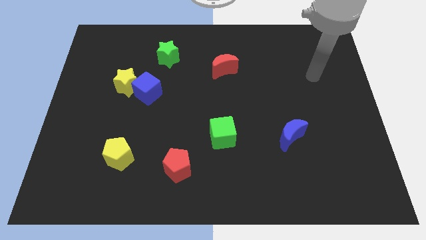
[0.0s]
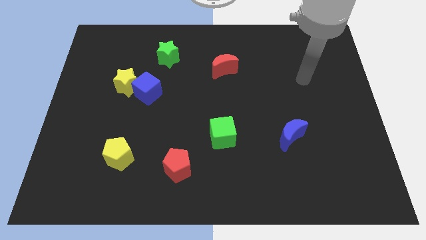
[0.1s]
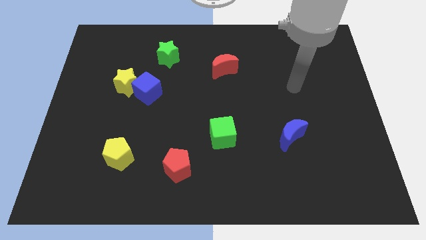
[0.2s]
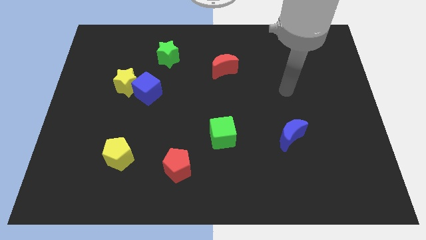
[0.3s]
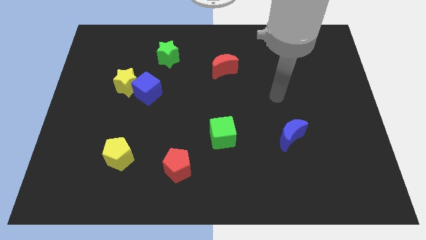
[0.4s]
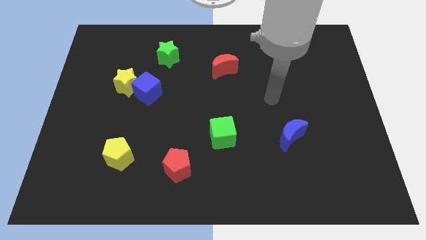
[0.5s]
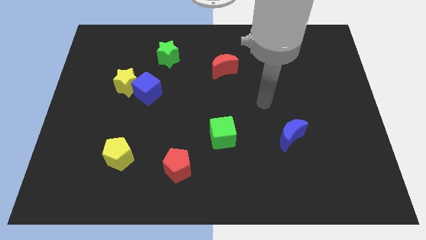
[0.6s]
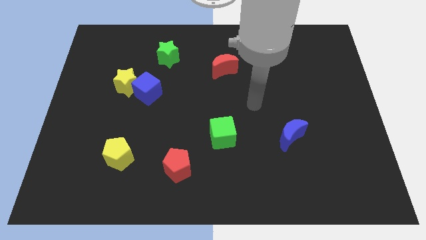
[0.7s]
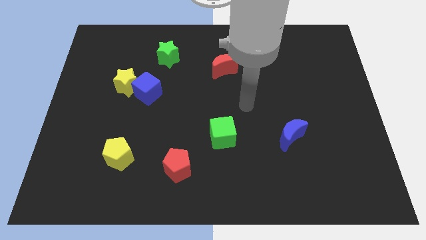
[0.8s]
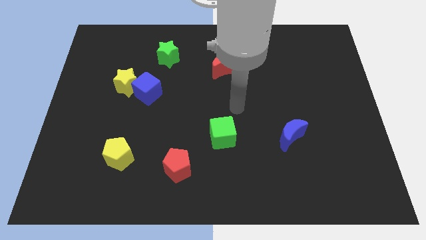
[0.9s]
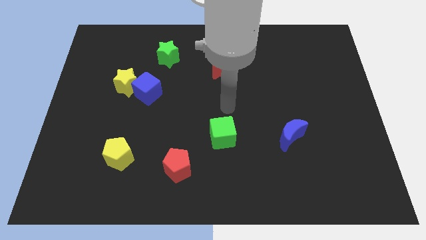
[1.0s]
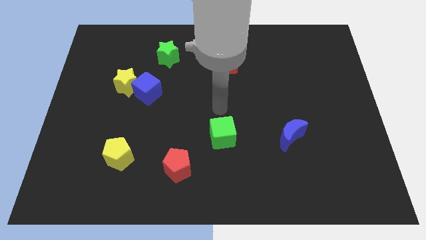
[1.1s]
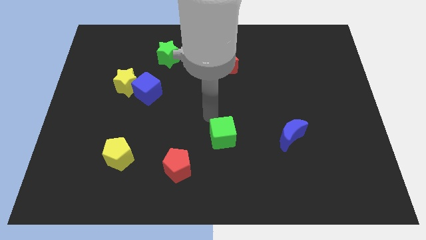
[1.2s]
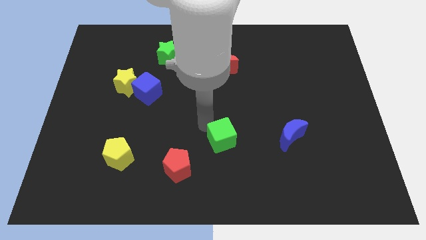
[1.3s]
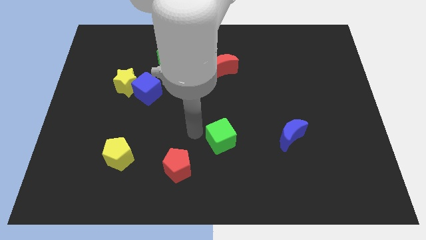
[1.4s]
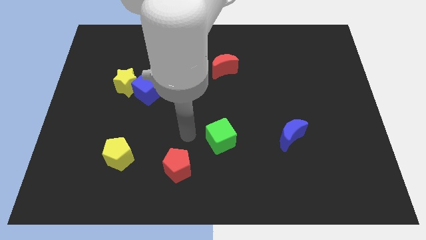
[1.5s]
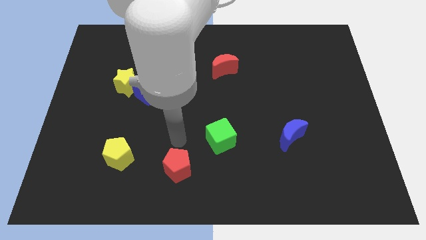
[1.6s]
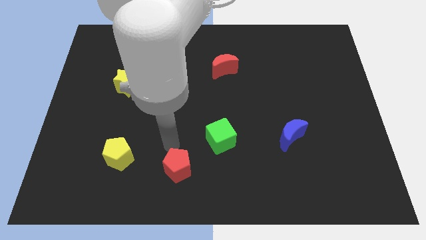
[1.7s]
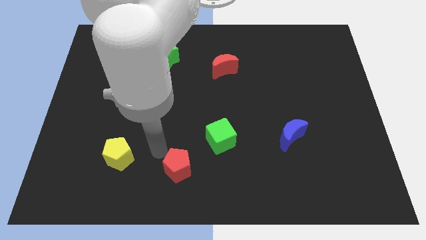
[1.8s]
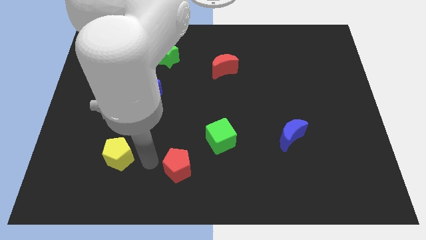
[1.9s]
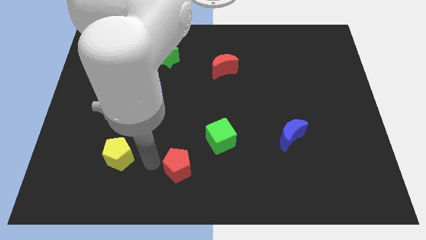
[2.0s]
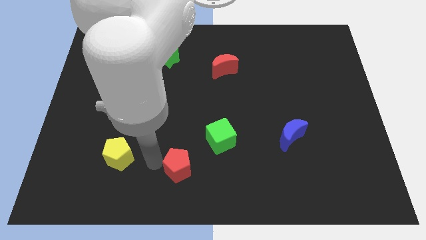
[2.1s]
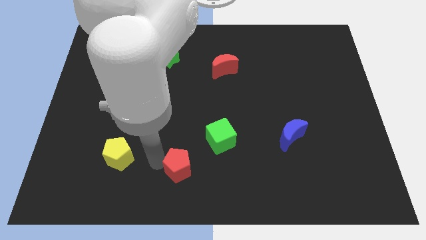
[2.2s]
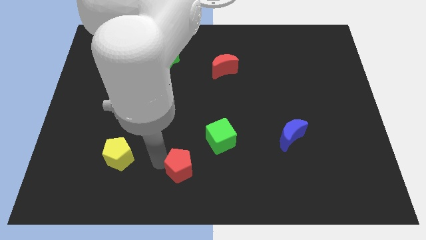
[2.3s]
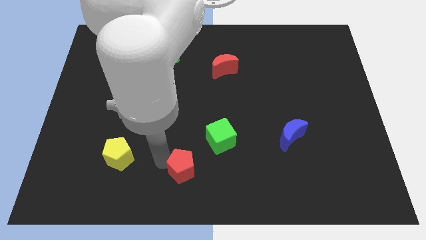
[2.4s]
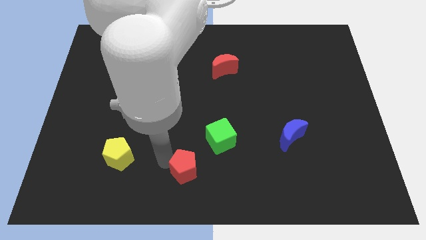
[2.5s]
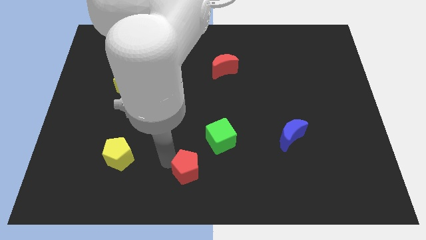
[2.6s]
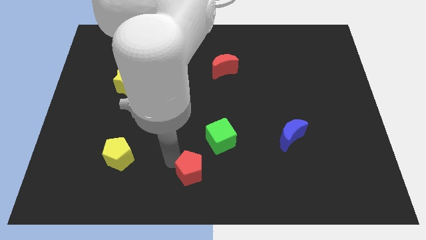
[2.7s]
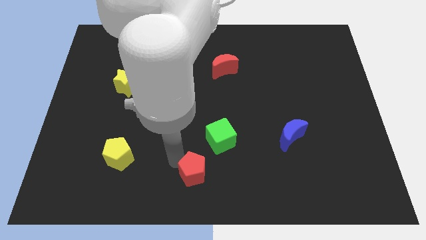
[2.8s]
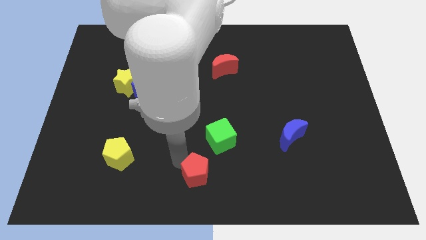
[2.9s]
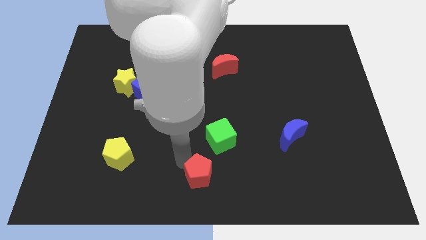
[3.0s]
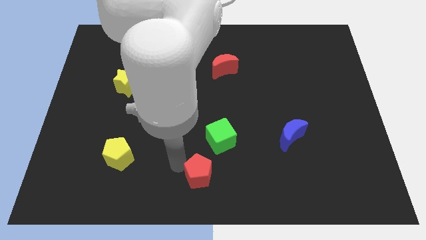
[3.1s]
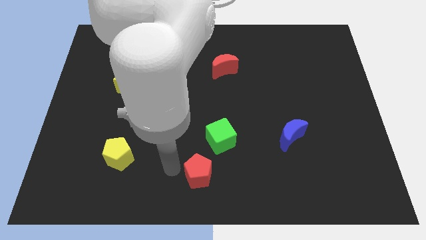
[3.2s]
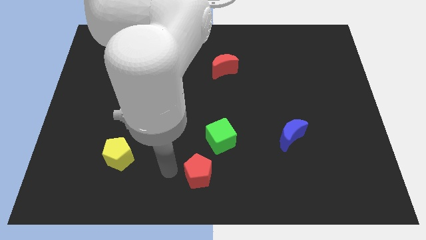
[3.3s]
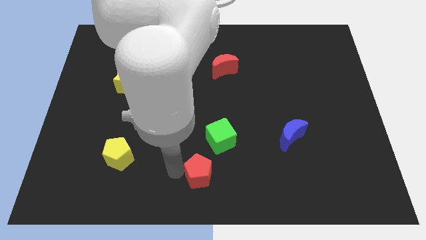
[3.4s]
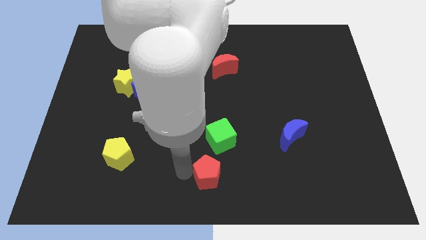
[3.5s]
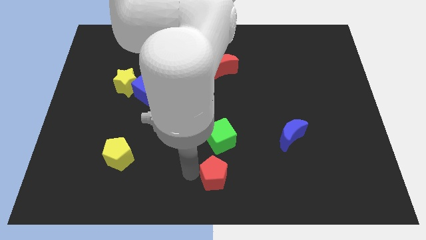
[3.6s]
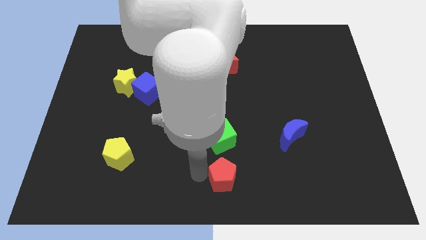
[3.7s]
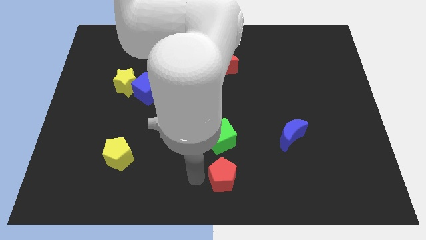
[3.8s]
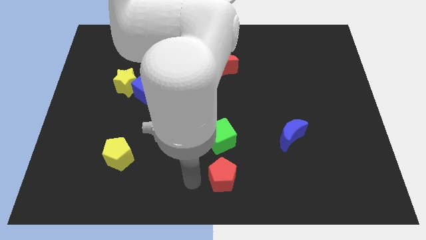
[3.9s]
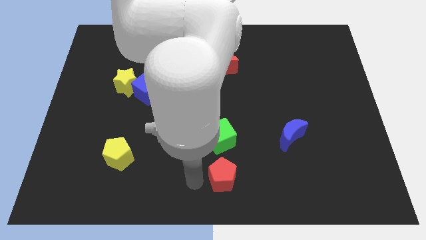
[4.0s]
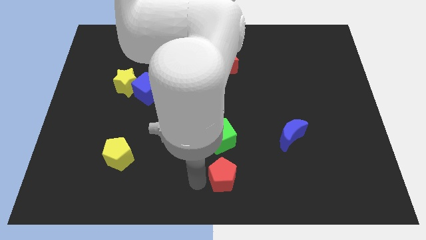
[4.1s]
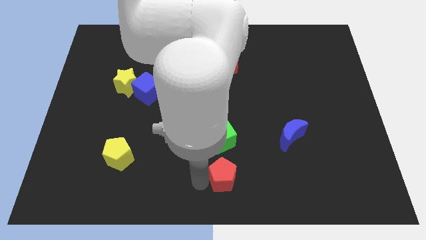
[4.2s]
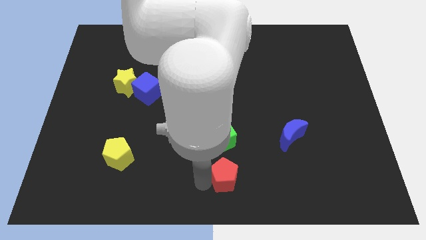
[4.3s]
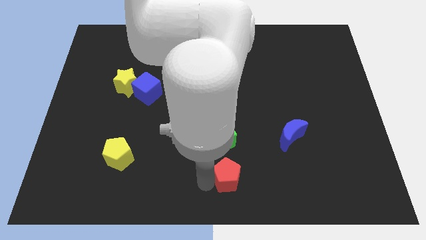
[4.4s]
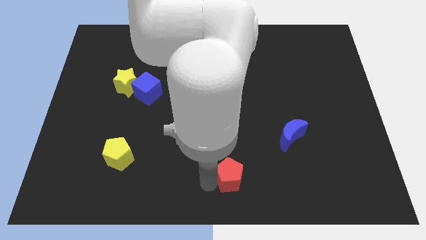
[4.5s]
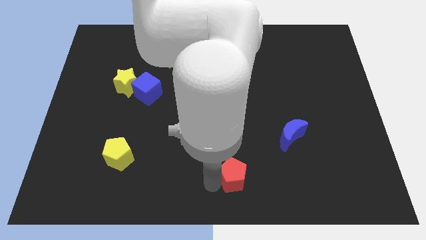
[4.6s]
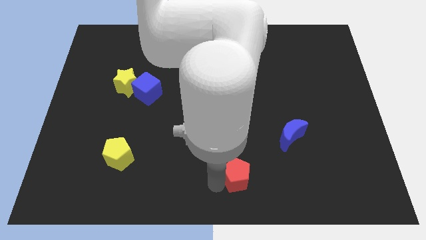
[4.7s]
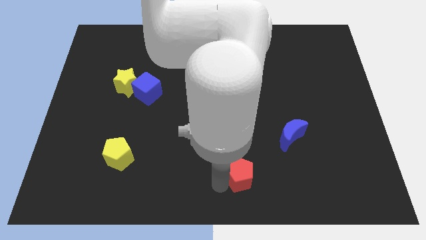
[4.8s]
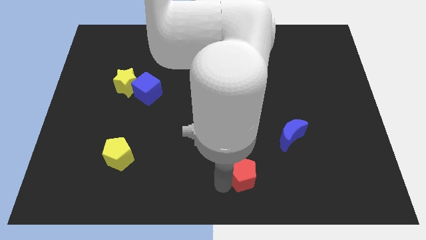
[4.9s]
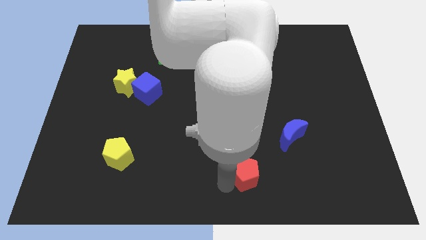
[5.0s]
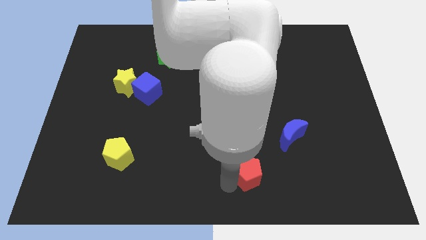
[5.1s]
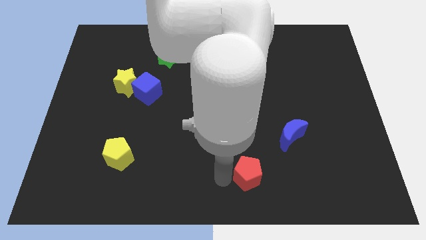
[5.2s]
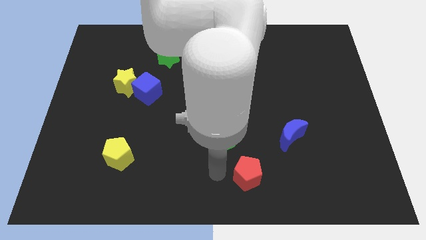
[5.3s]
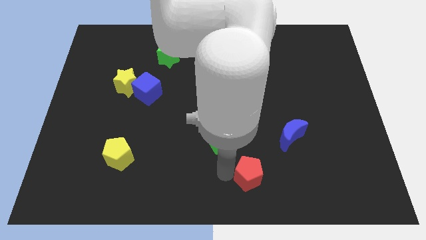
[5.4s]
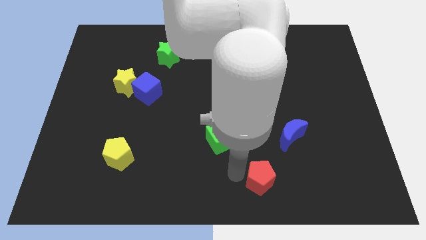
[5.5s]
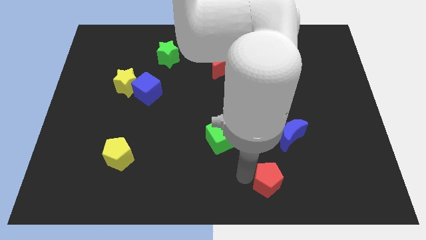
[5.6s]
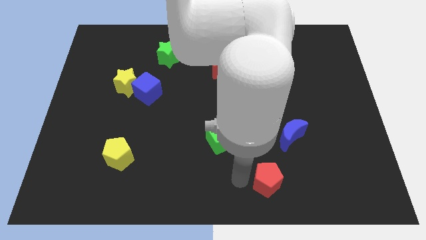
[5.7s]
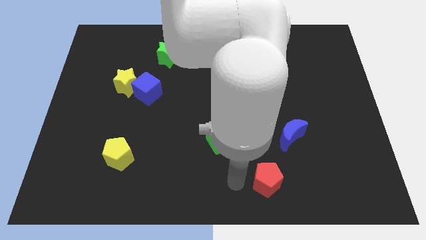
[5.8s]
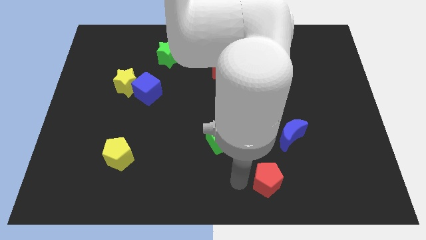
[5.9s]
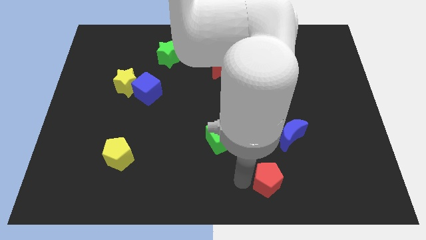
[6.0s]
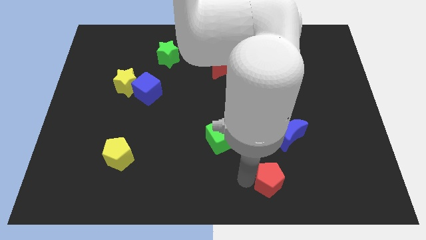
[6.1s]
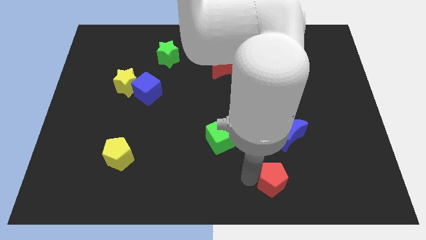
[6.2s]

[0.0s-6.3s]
put the red pentagon below the blue moon
